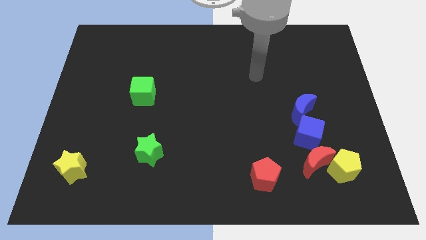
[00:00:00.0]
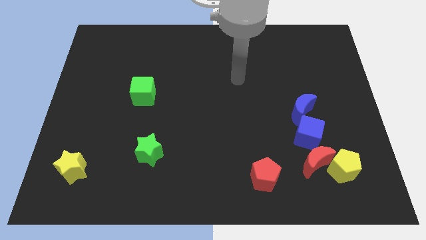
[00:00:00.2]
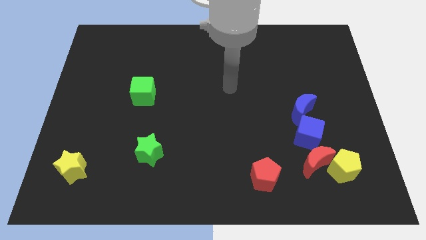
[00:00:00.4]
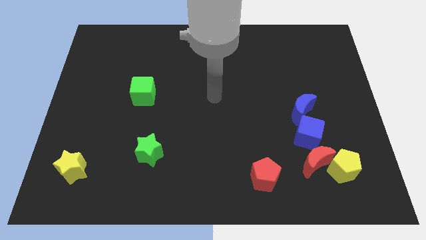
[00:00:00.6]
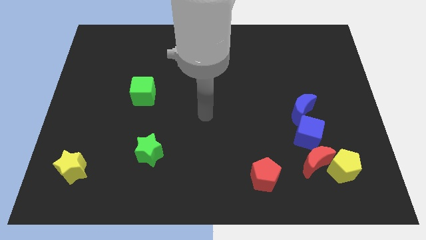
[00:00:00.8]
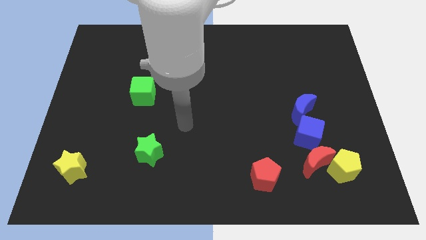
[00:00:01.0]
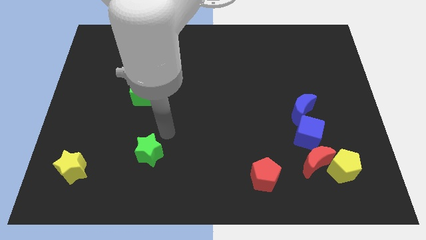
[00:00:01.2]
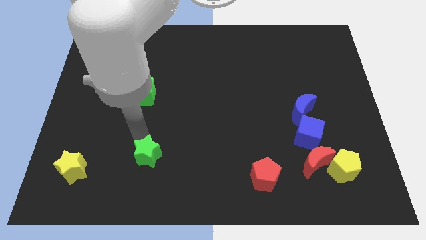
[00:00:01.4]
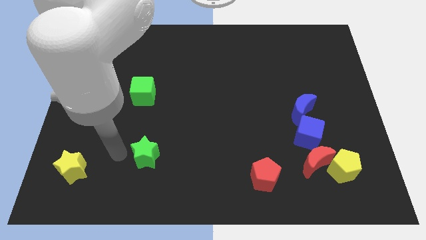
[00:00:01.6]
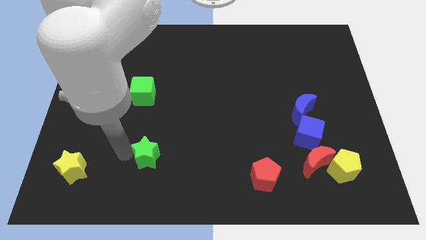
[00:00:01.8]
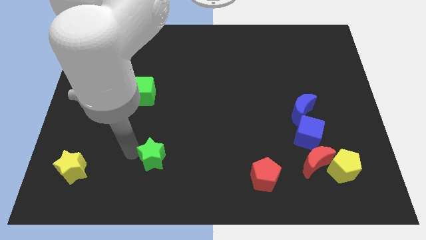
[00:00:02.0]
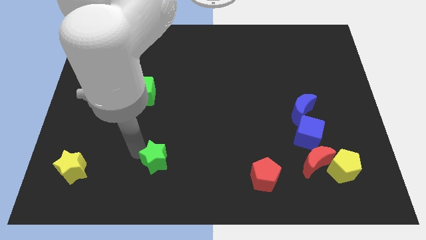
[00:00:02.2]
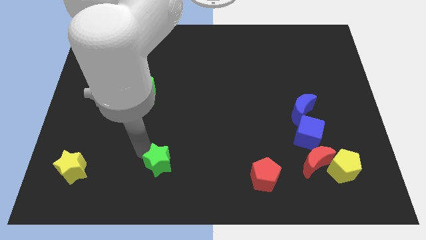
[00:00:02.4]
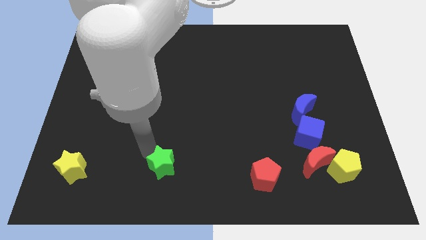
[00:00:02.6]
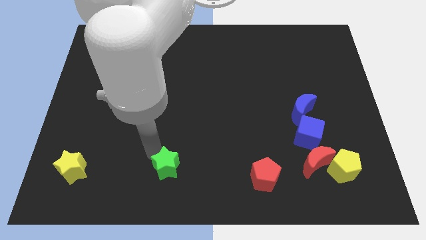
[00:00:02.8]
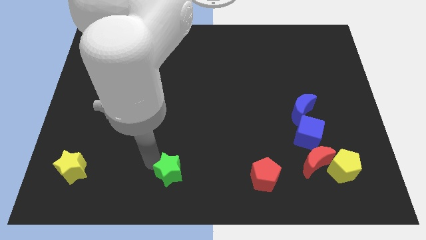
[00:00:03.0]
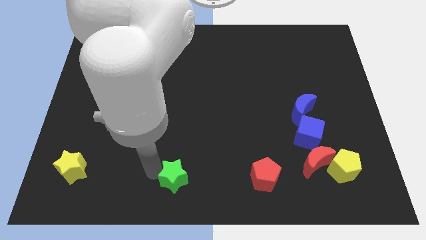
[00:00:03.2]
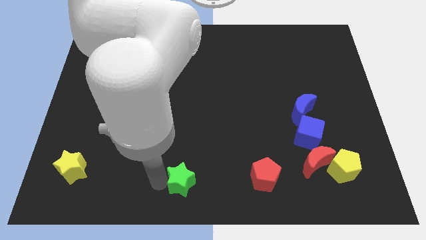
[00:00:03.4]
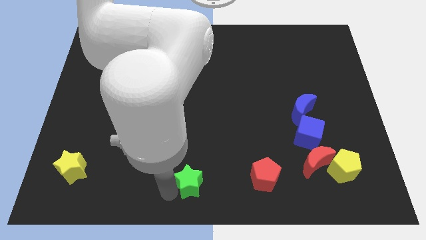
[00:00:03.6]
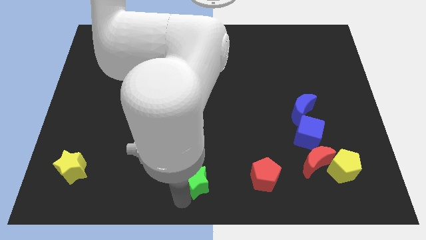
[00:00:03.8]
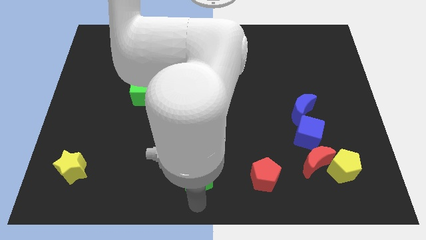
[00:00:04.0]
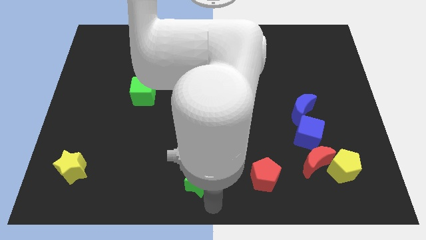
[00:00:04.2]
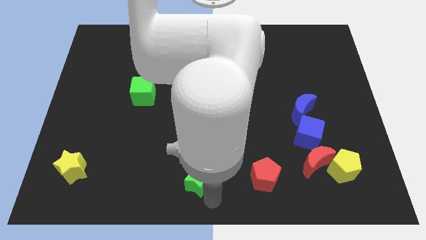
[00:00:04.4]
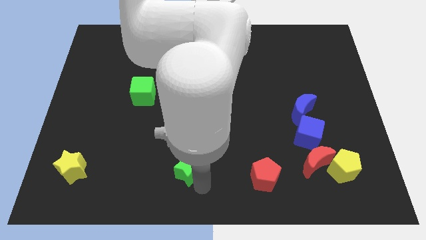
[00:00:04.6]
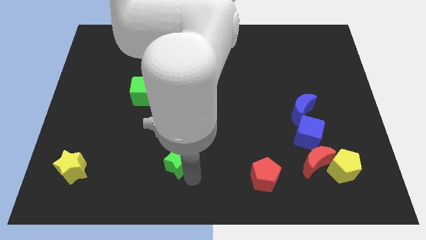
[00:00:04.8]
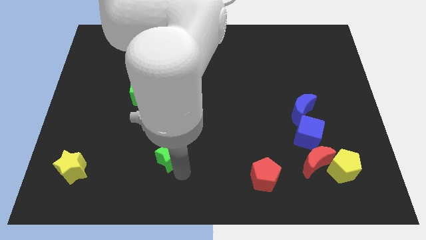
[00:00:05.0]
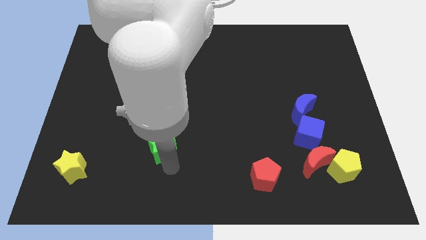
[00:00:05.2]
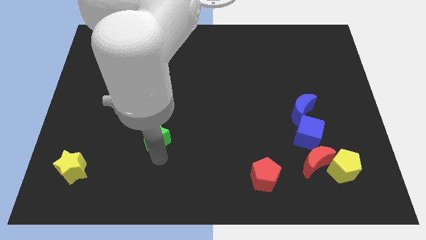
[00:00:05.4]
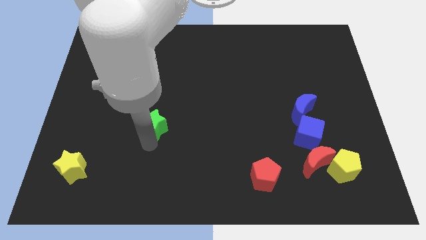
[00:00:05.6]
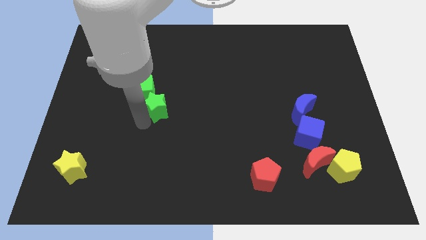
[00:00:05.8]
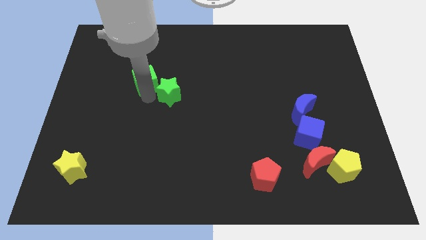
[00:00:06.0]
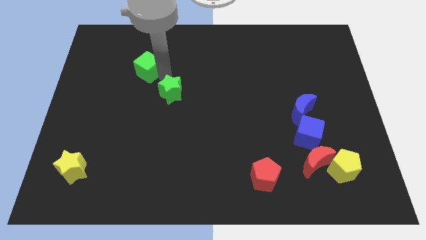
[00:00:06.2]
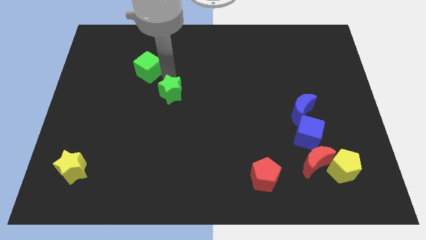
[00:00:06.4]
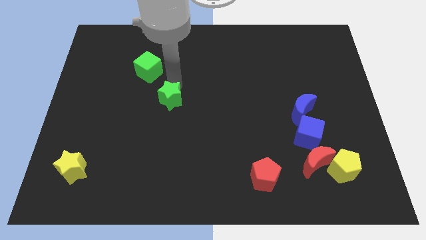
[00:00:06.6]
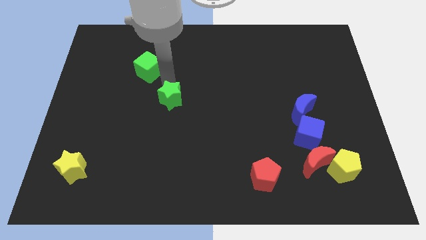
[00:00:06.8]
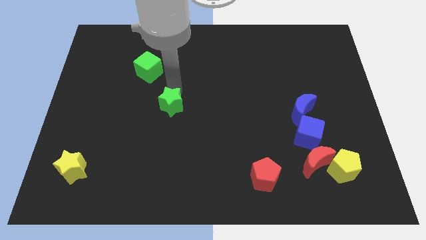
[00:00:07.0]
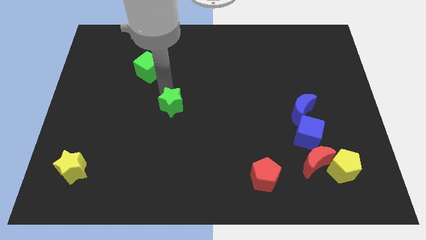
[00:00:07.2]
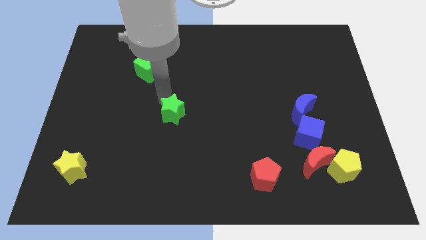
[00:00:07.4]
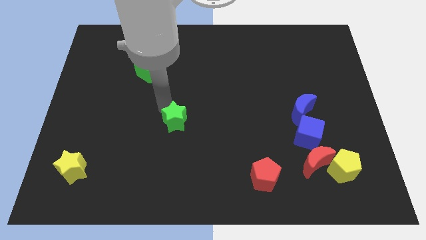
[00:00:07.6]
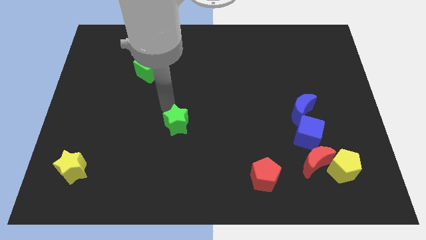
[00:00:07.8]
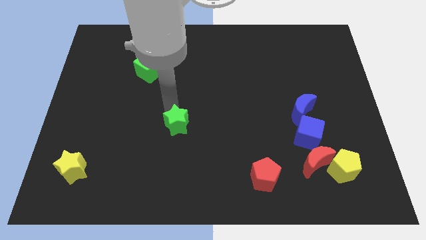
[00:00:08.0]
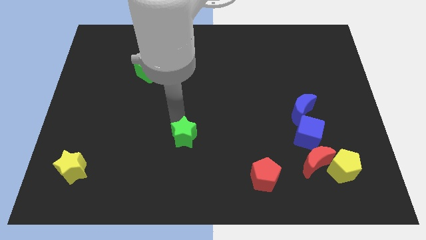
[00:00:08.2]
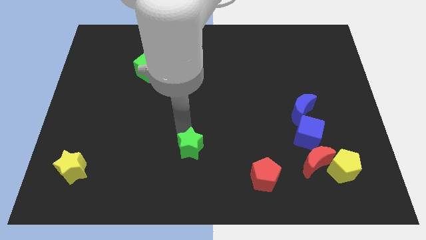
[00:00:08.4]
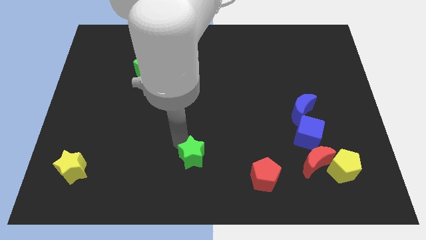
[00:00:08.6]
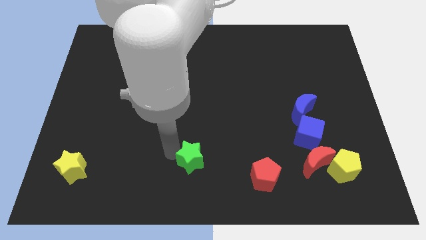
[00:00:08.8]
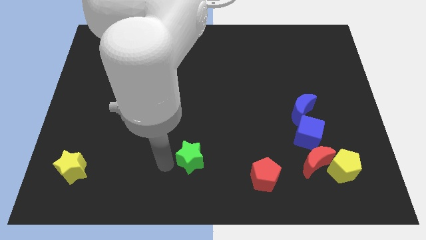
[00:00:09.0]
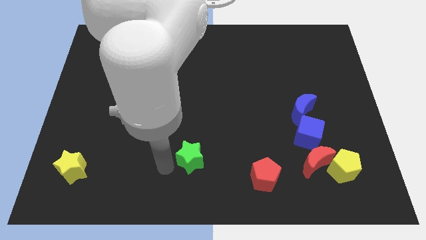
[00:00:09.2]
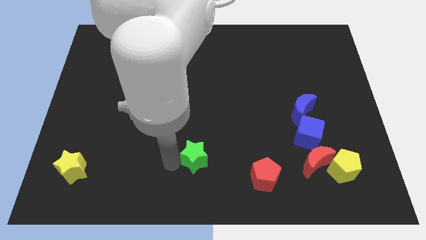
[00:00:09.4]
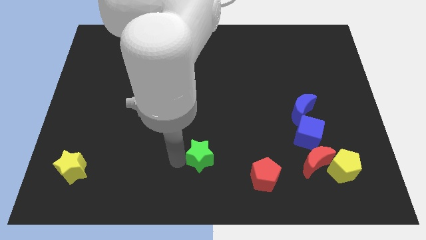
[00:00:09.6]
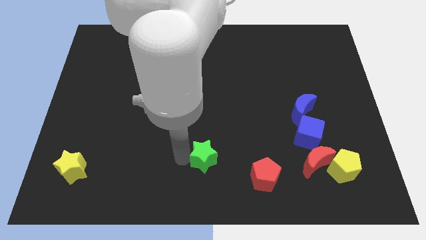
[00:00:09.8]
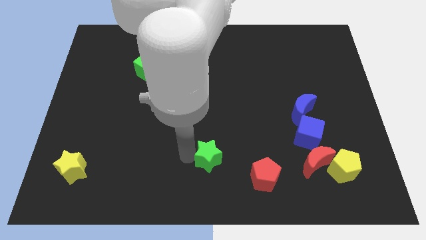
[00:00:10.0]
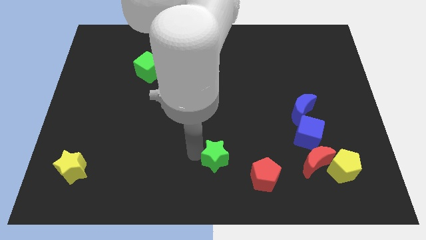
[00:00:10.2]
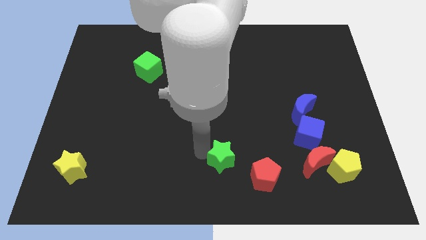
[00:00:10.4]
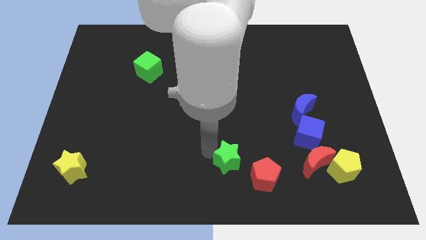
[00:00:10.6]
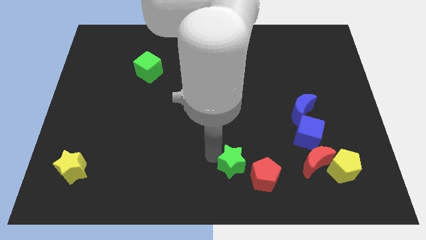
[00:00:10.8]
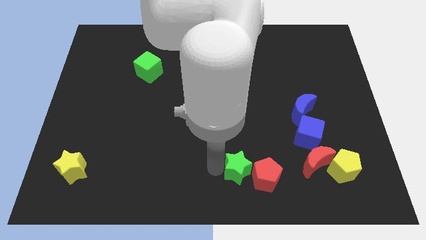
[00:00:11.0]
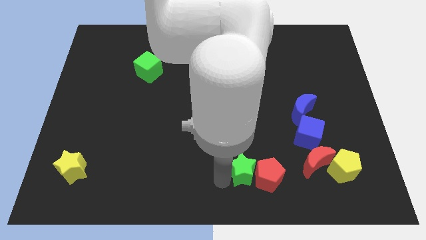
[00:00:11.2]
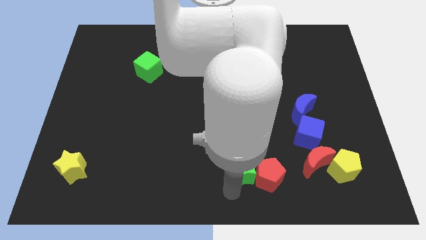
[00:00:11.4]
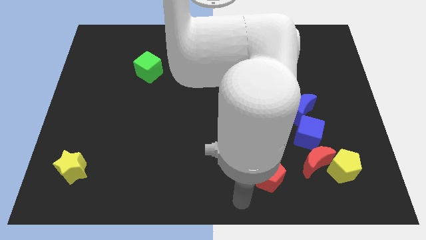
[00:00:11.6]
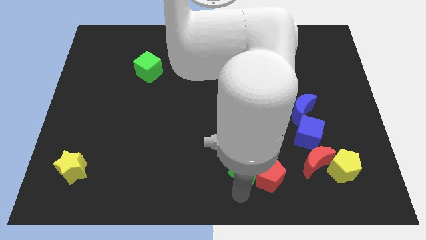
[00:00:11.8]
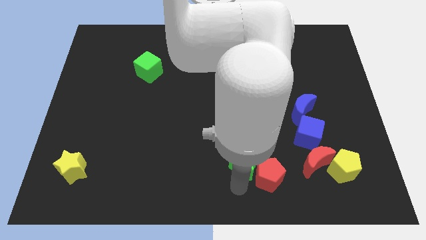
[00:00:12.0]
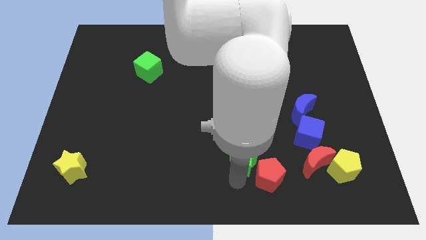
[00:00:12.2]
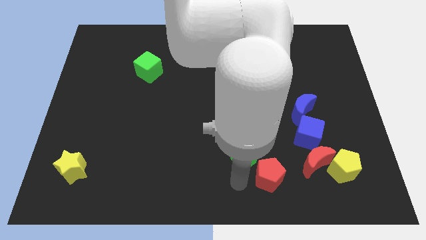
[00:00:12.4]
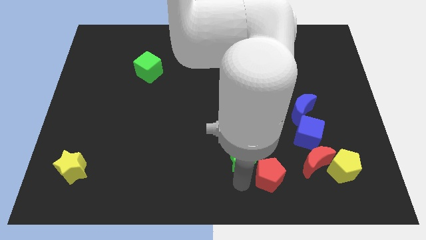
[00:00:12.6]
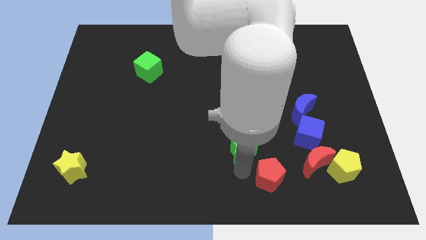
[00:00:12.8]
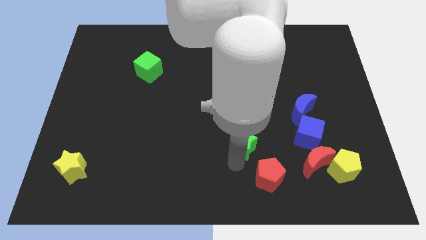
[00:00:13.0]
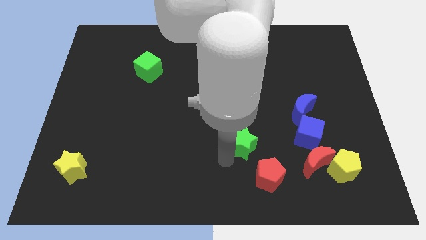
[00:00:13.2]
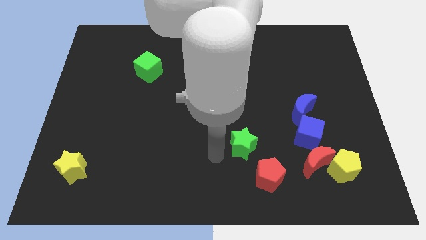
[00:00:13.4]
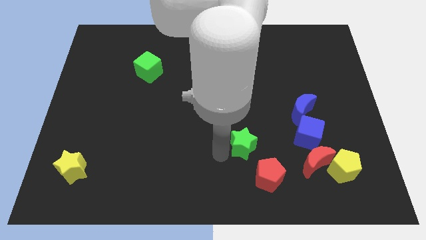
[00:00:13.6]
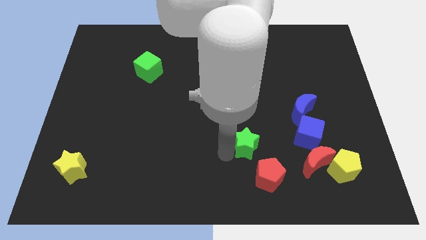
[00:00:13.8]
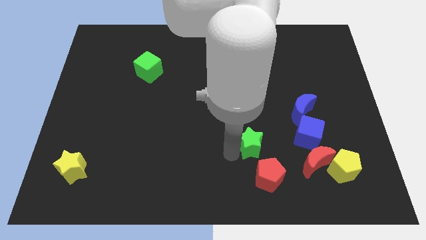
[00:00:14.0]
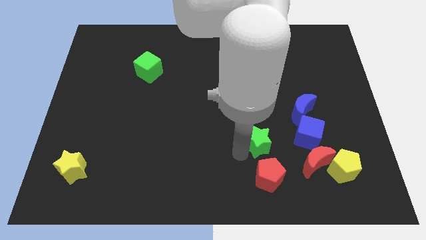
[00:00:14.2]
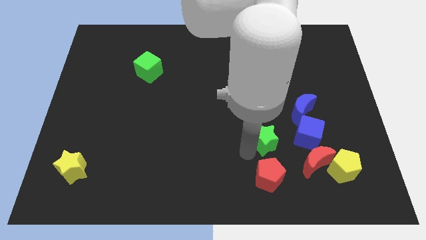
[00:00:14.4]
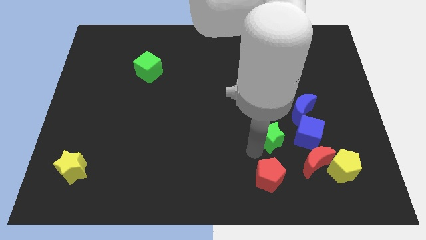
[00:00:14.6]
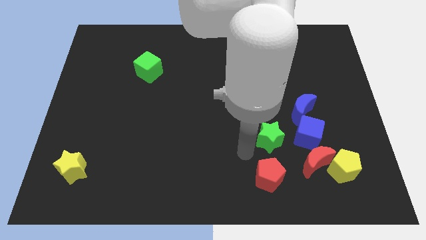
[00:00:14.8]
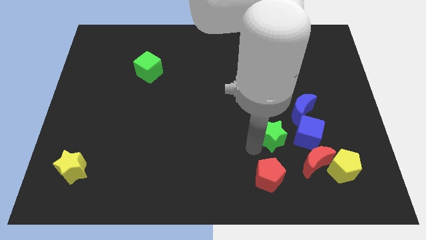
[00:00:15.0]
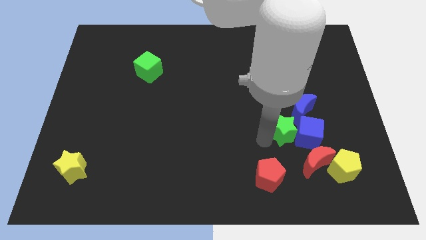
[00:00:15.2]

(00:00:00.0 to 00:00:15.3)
move the green star close to the blue cube

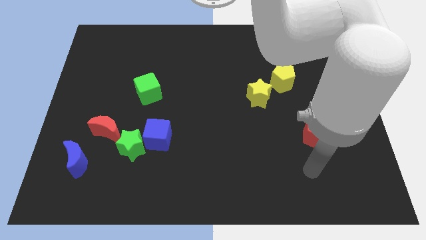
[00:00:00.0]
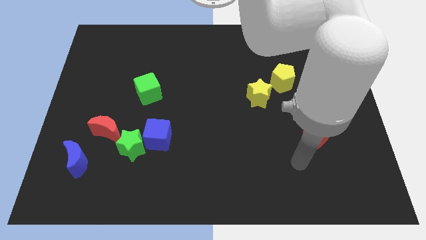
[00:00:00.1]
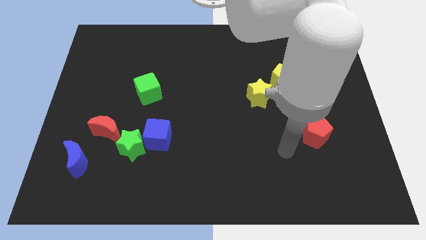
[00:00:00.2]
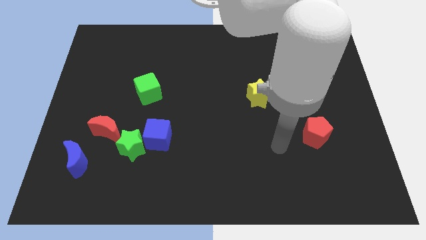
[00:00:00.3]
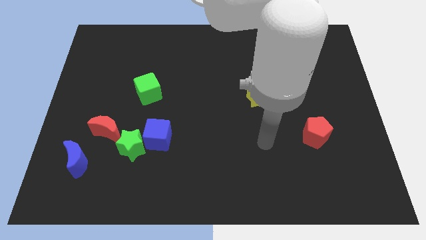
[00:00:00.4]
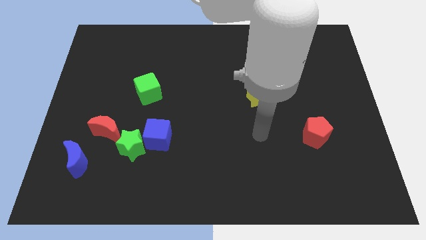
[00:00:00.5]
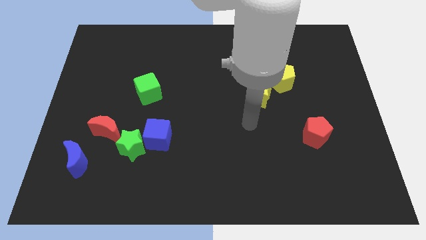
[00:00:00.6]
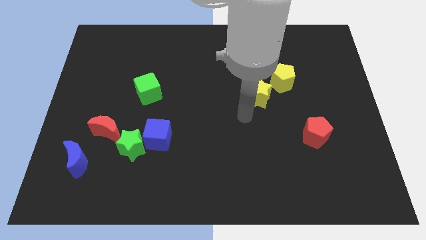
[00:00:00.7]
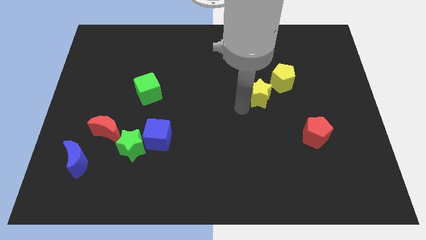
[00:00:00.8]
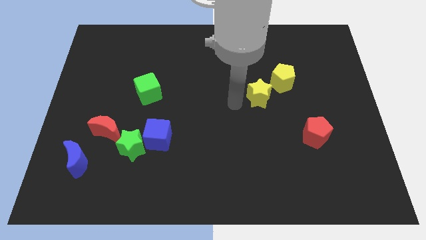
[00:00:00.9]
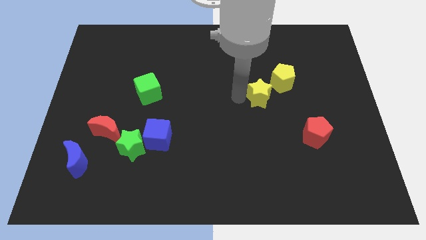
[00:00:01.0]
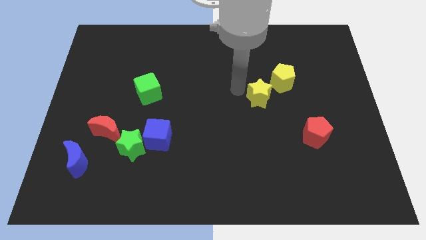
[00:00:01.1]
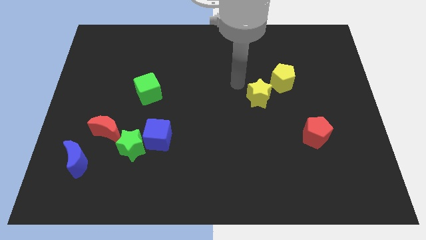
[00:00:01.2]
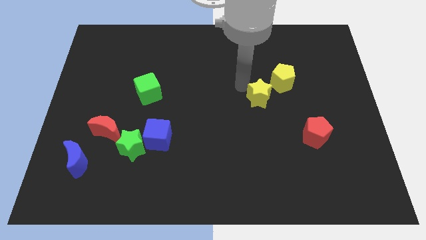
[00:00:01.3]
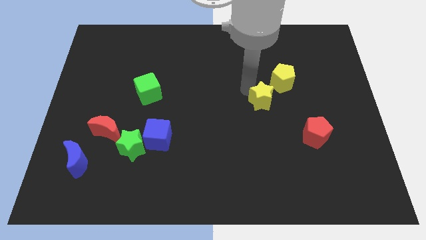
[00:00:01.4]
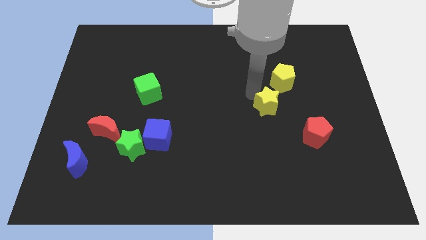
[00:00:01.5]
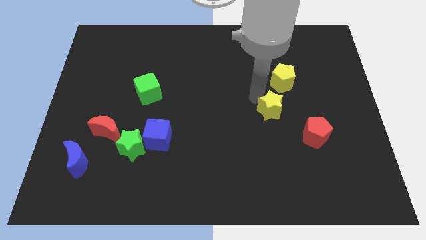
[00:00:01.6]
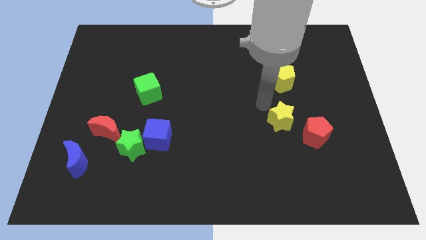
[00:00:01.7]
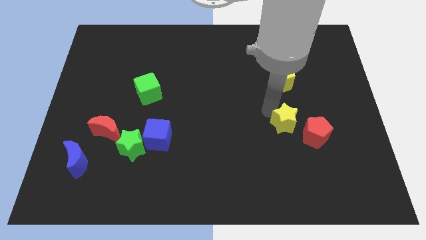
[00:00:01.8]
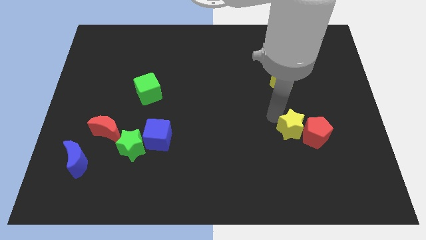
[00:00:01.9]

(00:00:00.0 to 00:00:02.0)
slide the yellow star to the red pentagon
